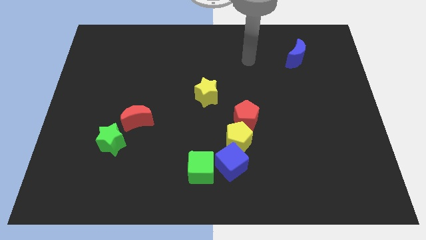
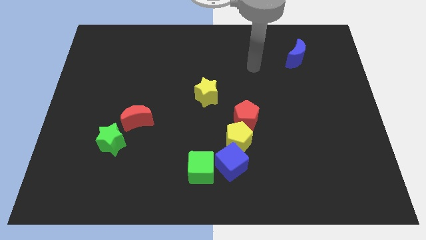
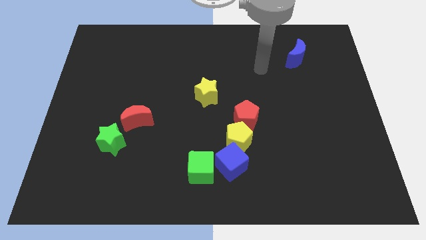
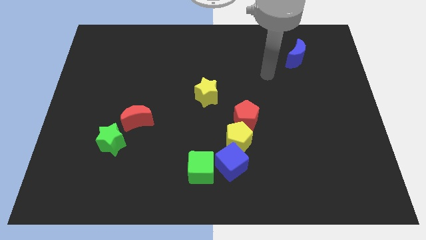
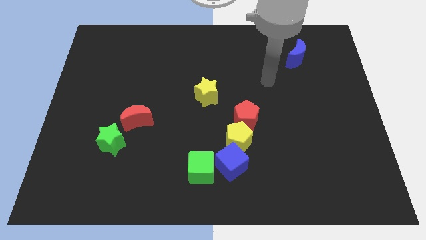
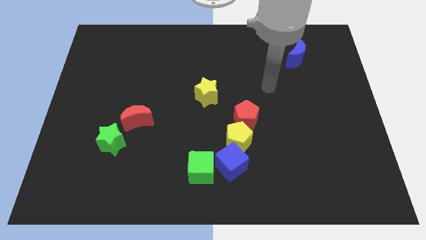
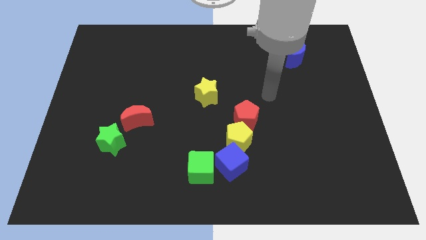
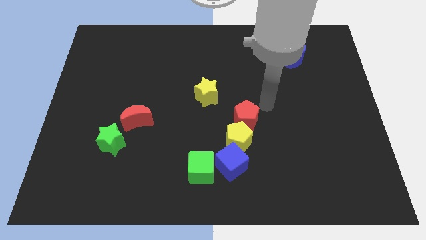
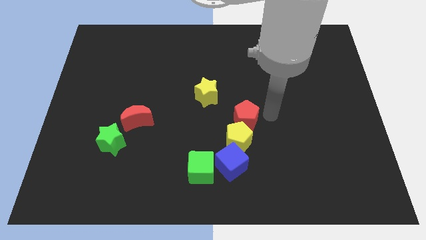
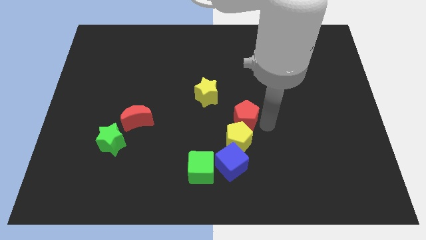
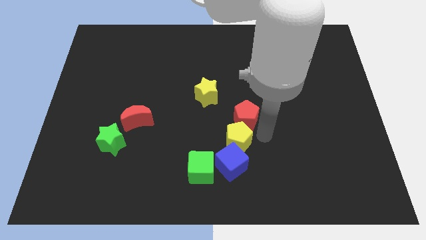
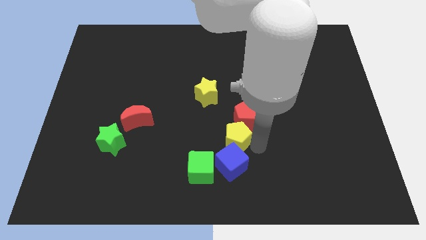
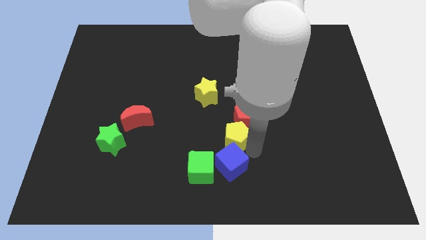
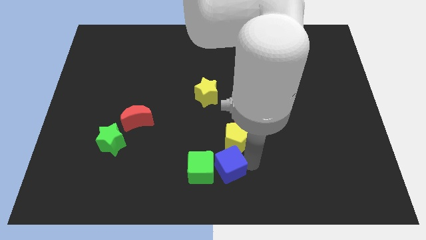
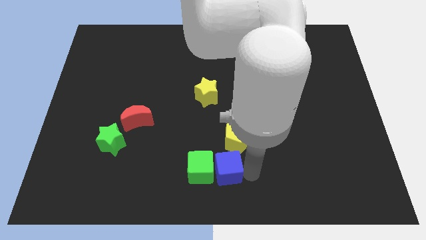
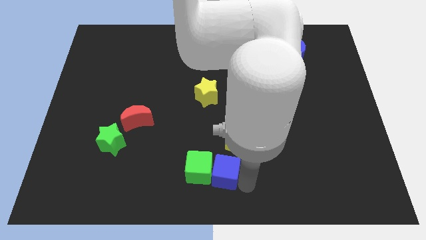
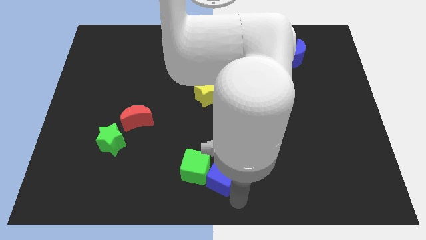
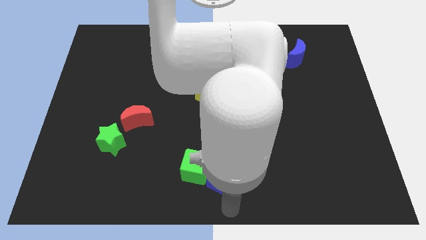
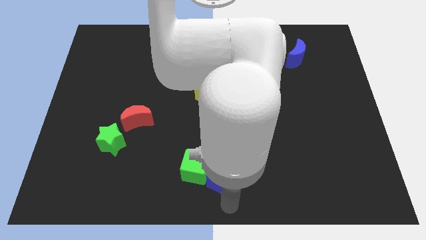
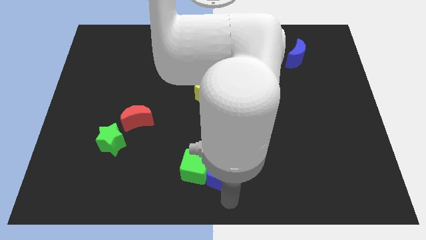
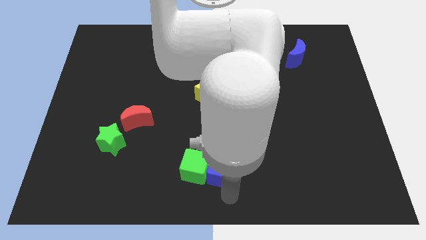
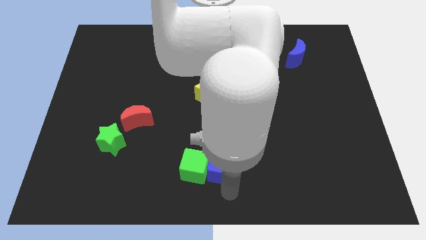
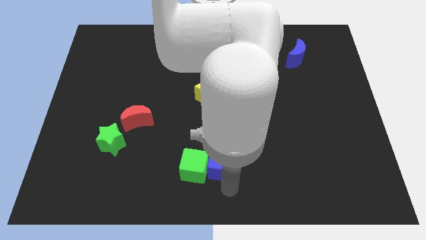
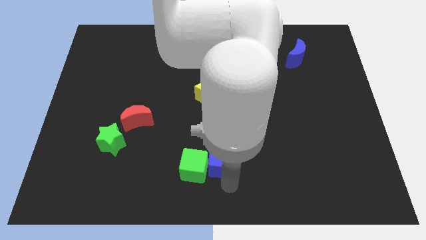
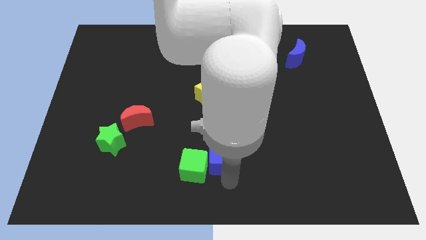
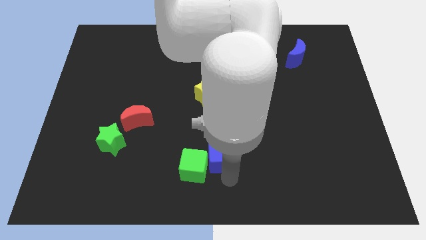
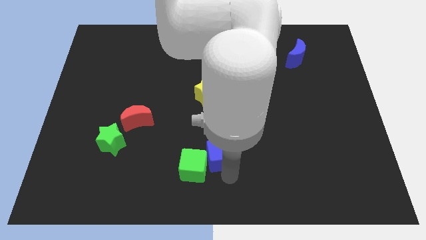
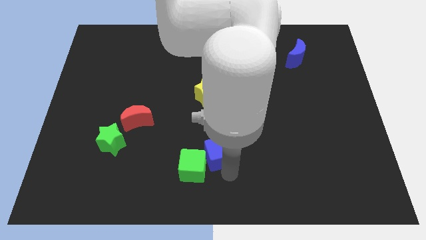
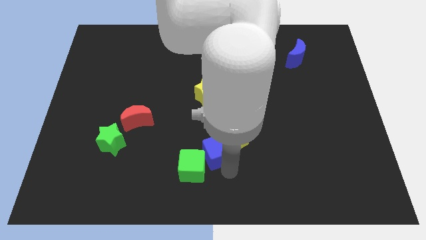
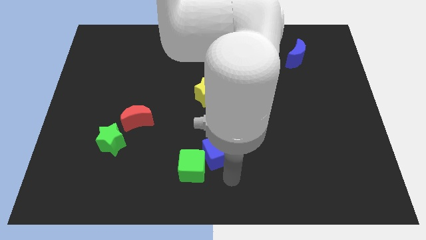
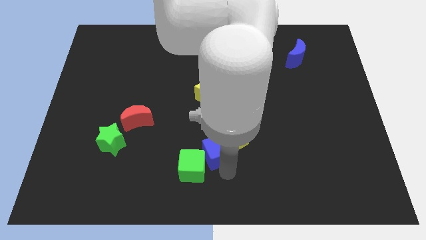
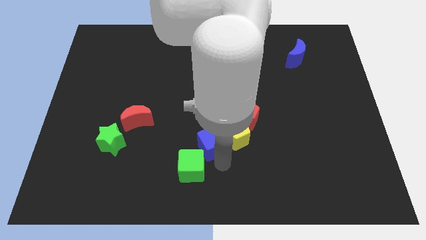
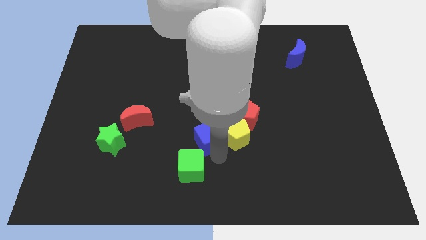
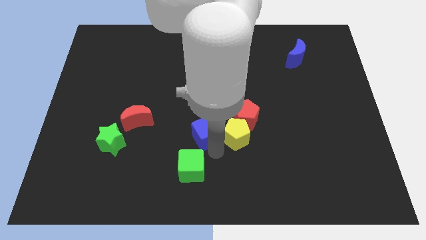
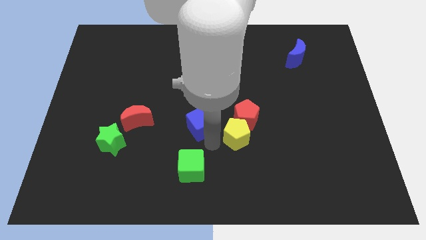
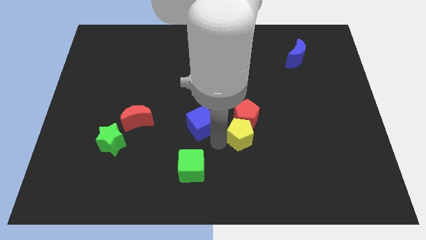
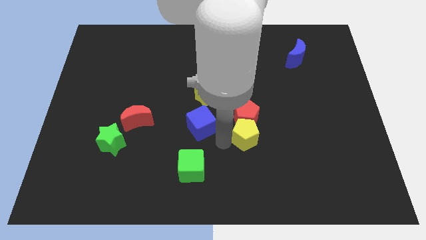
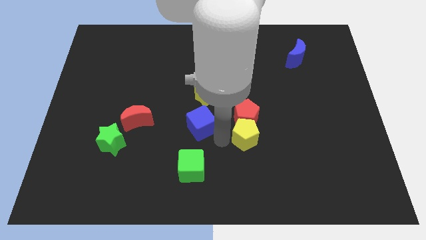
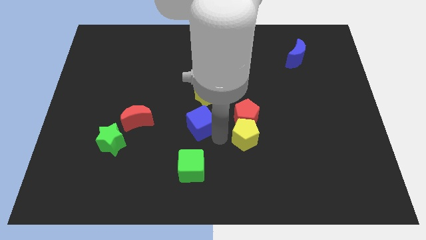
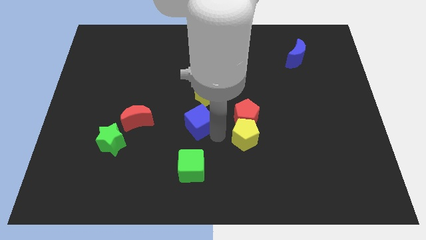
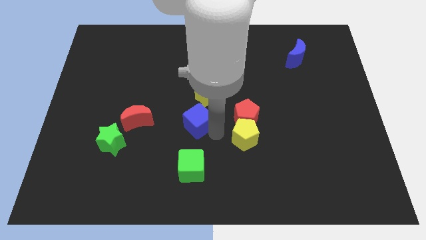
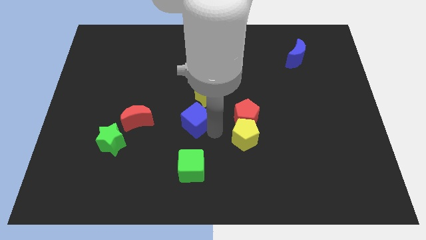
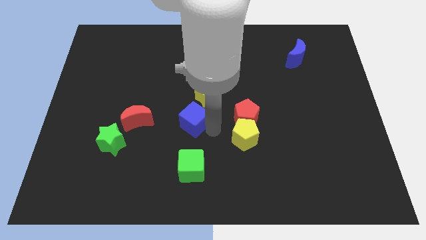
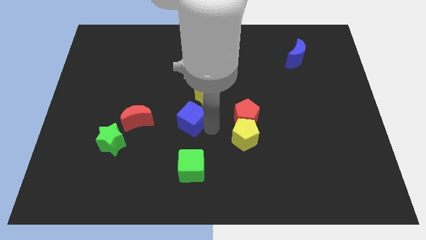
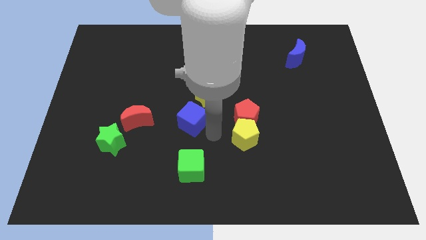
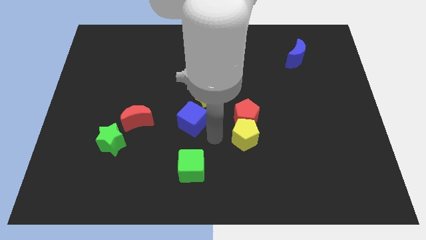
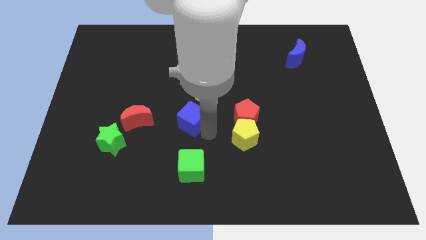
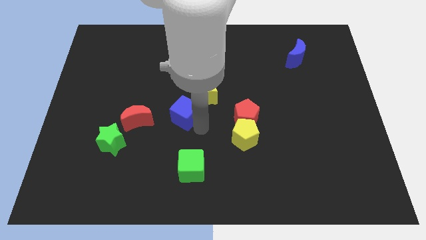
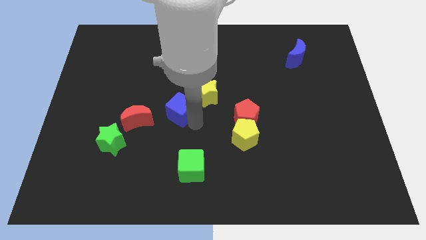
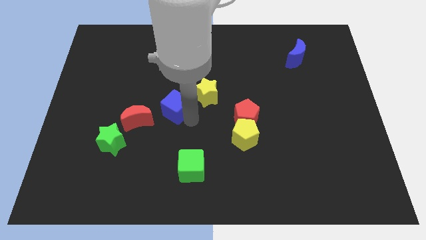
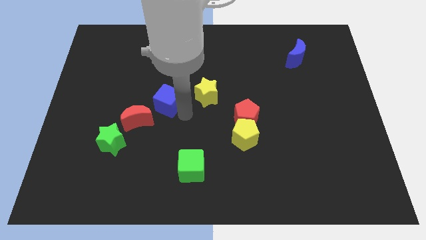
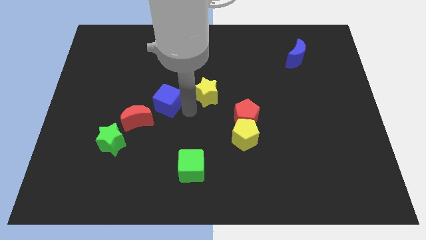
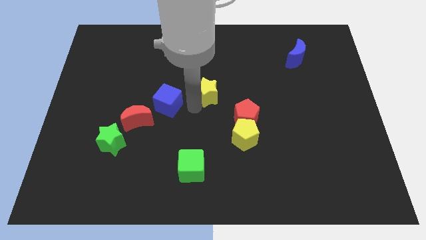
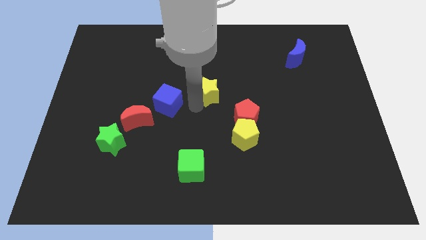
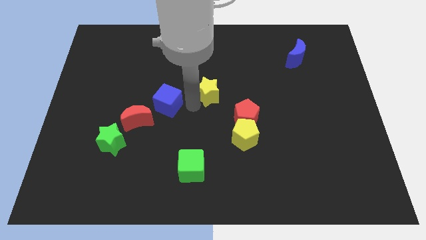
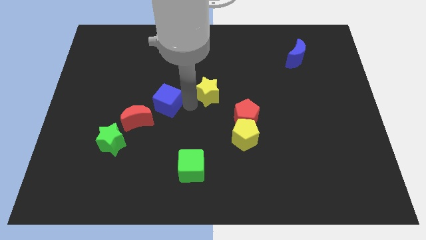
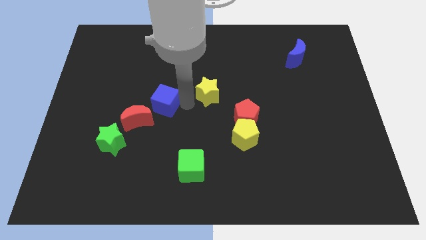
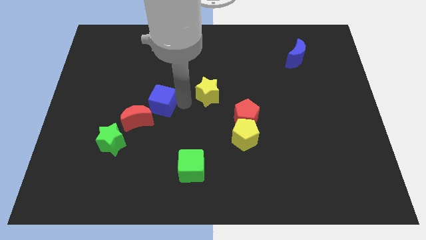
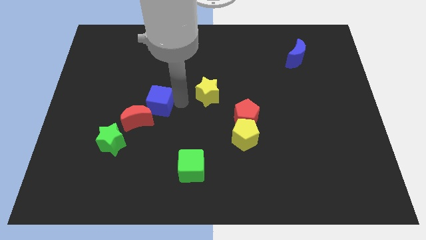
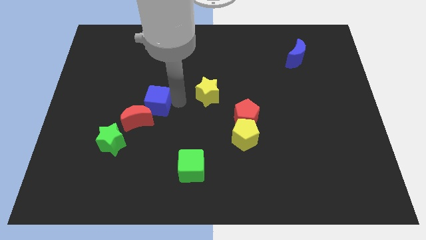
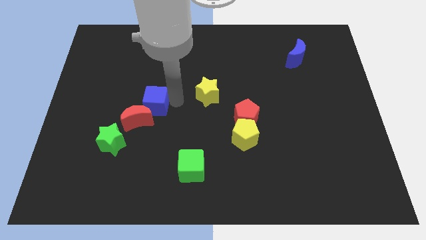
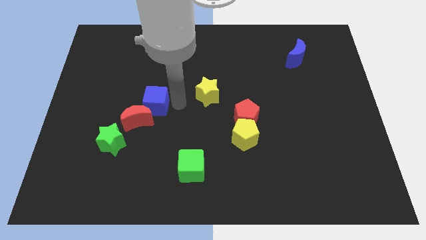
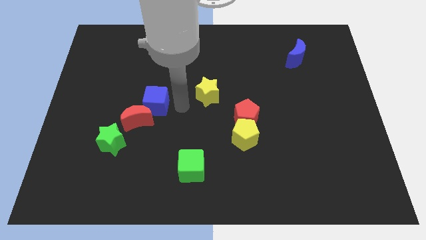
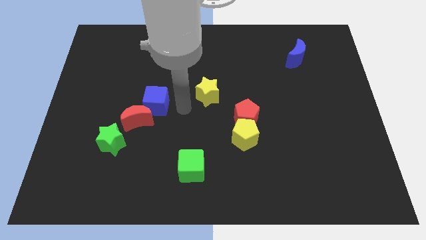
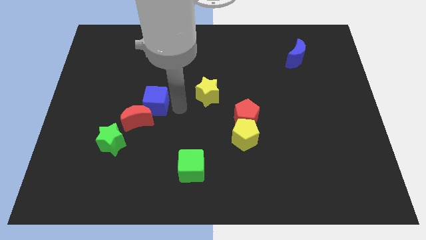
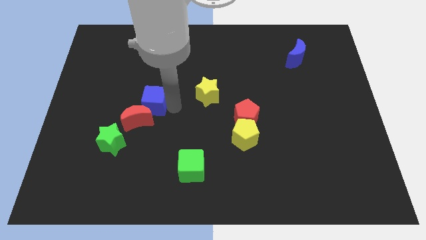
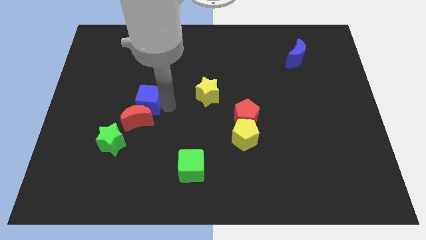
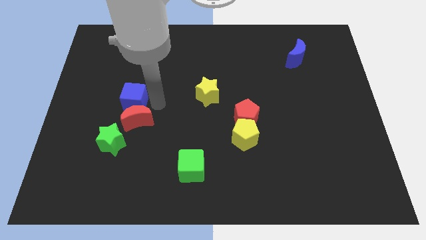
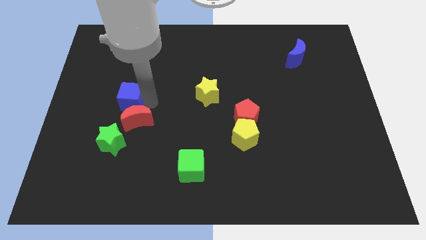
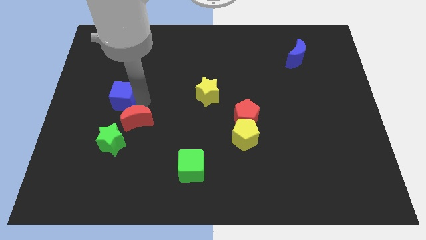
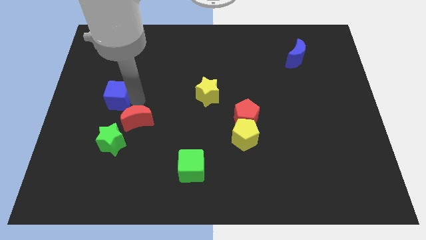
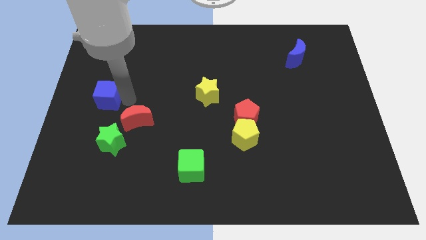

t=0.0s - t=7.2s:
push the blue cube to the left side
